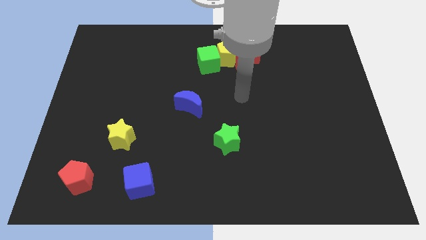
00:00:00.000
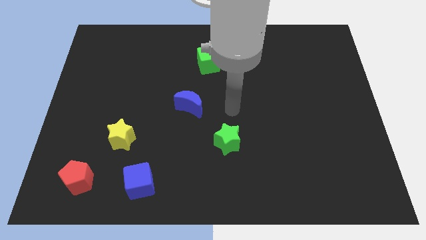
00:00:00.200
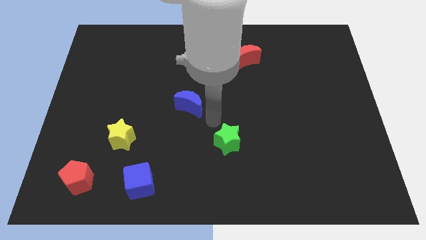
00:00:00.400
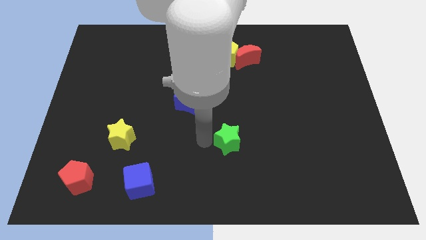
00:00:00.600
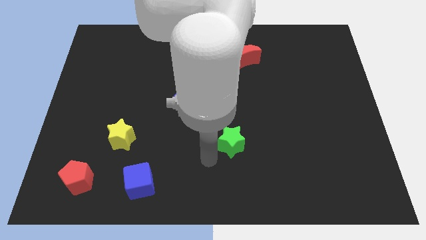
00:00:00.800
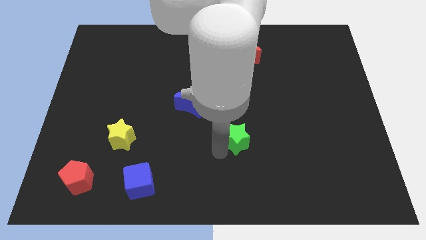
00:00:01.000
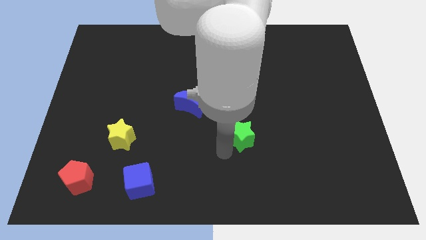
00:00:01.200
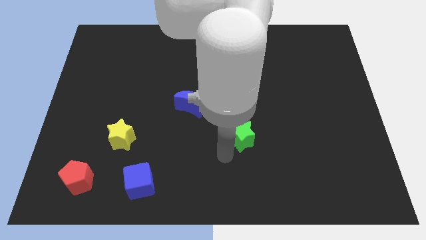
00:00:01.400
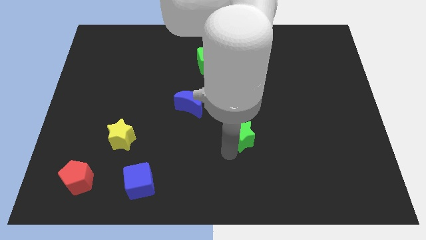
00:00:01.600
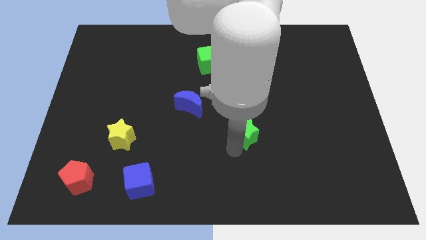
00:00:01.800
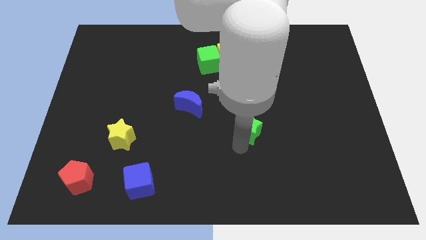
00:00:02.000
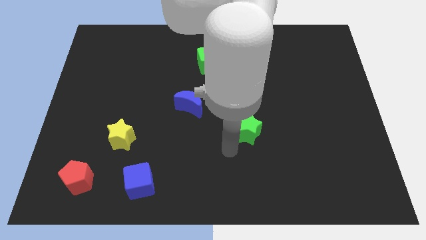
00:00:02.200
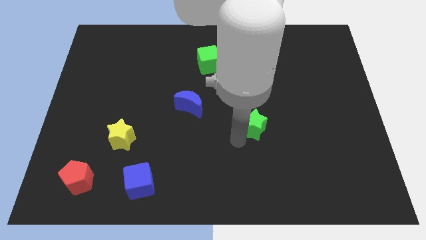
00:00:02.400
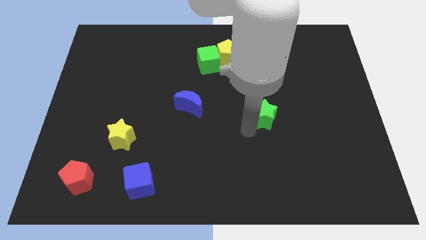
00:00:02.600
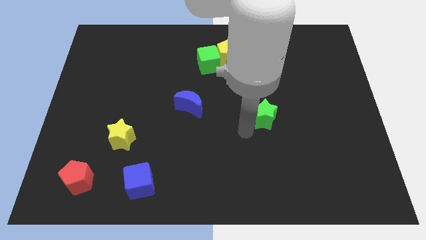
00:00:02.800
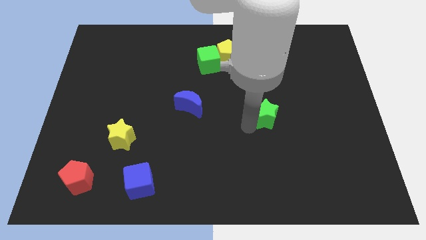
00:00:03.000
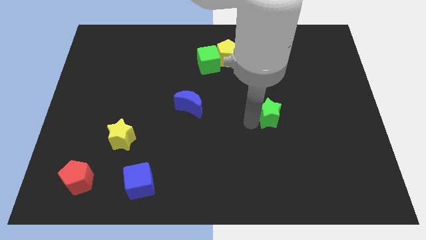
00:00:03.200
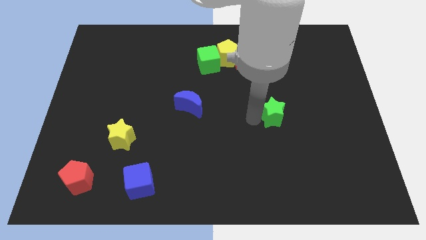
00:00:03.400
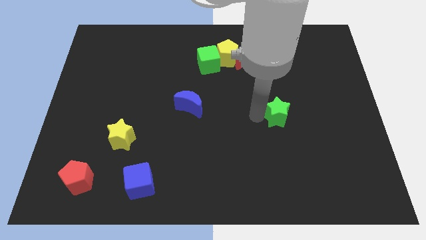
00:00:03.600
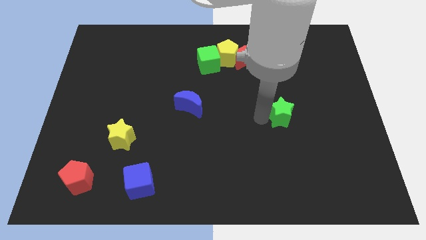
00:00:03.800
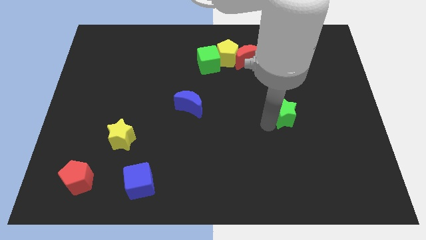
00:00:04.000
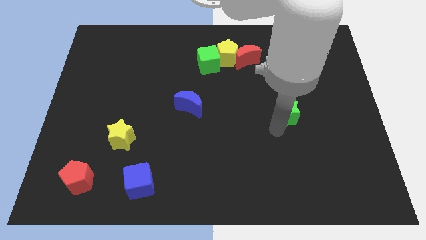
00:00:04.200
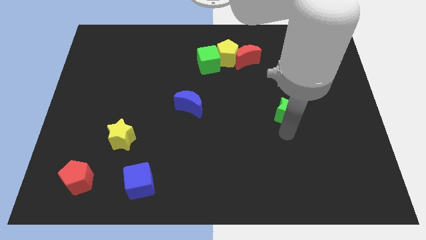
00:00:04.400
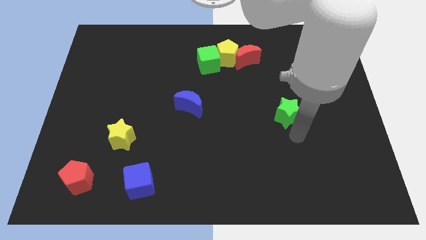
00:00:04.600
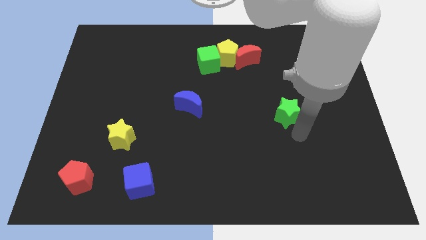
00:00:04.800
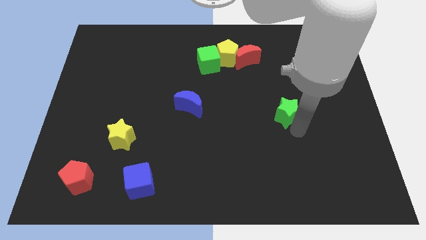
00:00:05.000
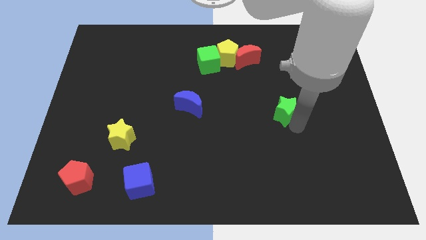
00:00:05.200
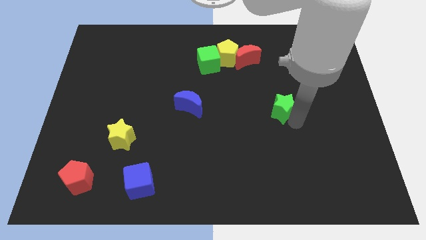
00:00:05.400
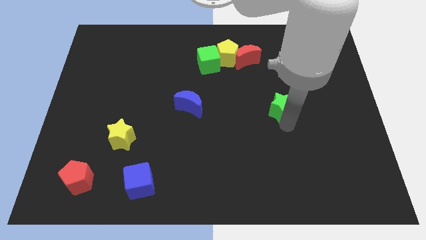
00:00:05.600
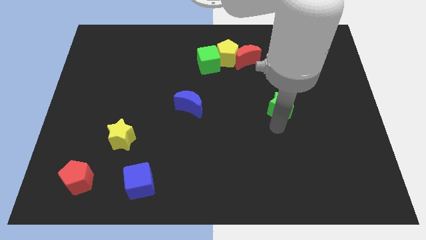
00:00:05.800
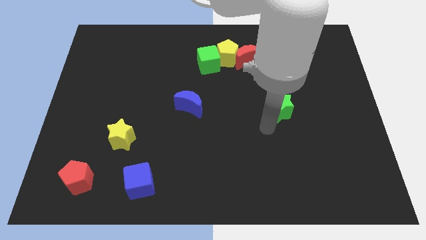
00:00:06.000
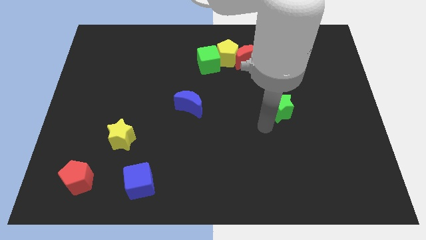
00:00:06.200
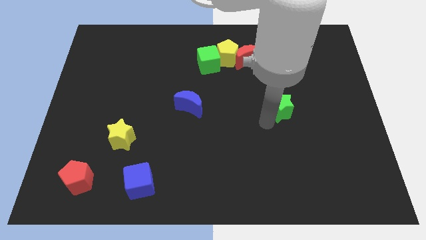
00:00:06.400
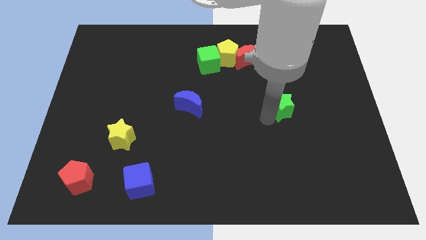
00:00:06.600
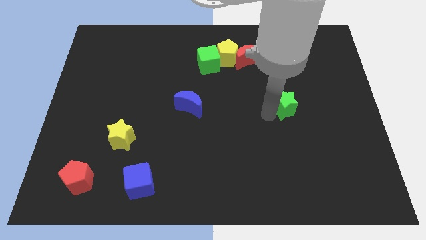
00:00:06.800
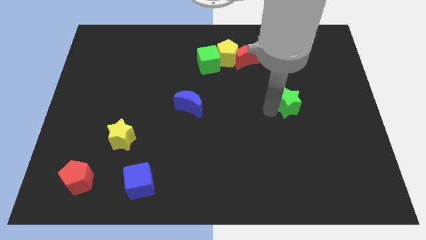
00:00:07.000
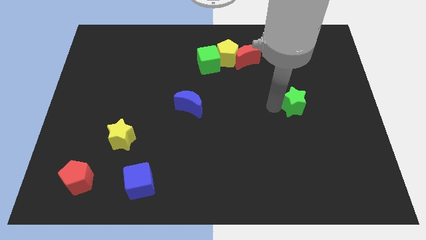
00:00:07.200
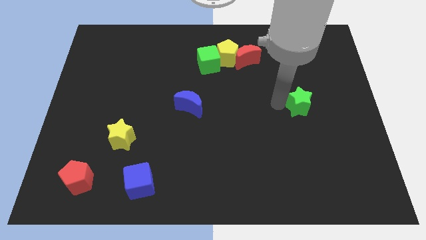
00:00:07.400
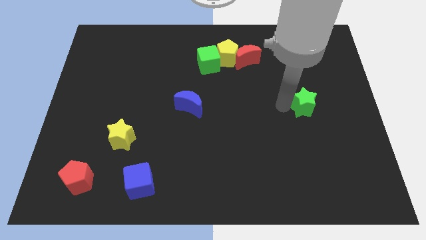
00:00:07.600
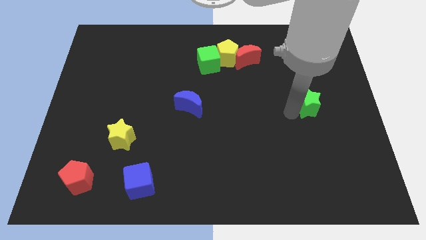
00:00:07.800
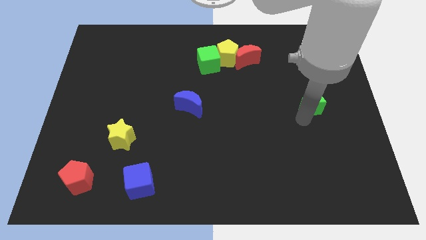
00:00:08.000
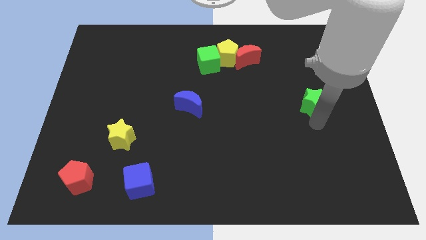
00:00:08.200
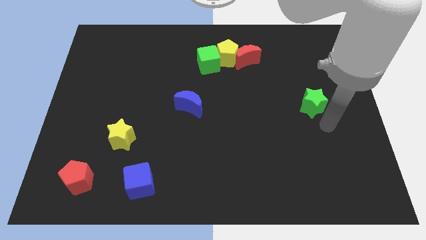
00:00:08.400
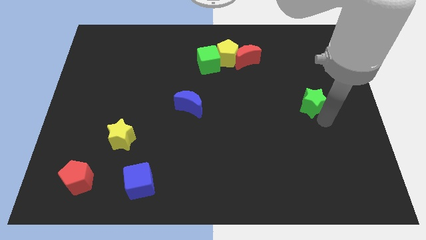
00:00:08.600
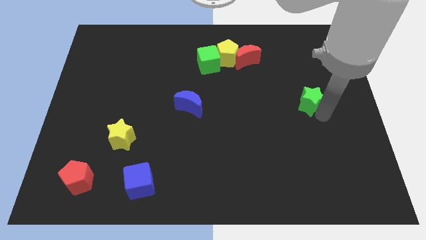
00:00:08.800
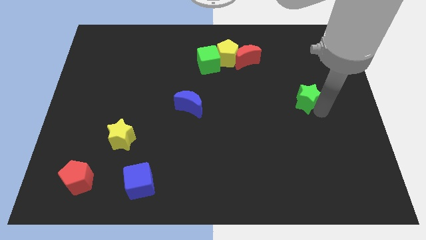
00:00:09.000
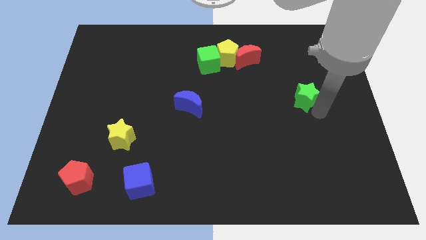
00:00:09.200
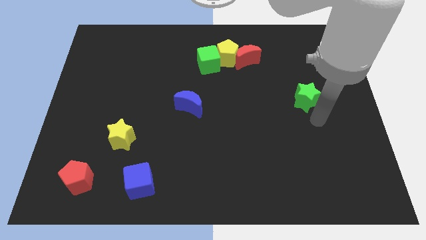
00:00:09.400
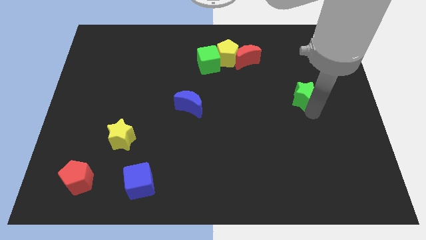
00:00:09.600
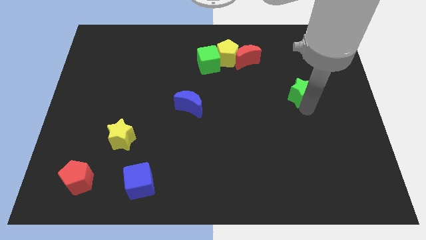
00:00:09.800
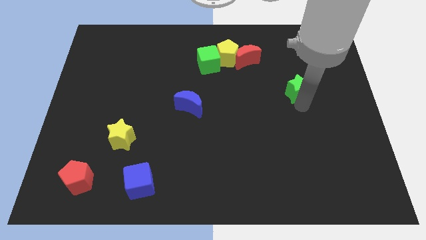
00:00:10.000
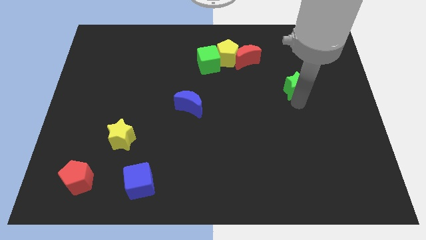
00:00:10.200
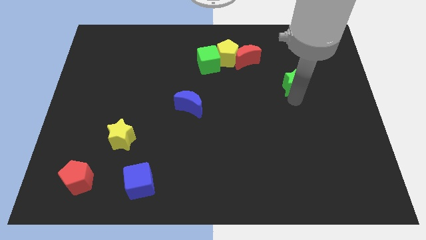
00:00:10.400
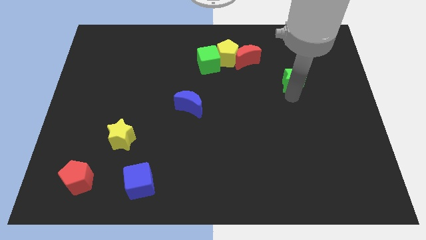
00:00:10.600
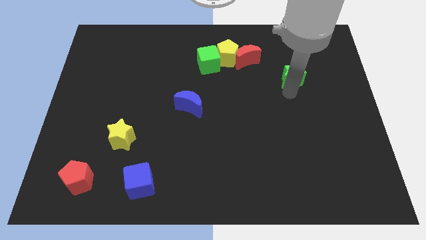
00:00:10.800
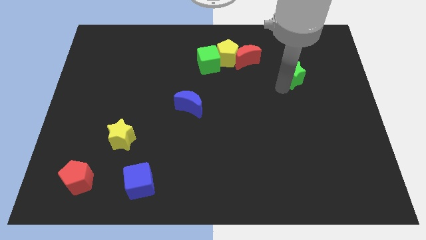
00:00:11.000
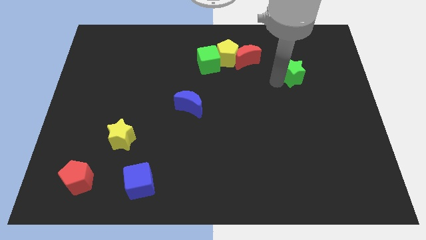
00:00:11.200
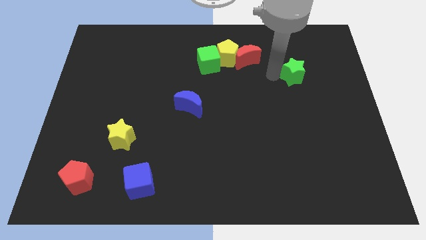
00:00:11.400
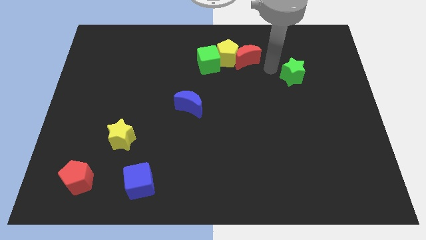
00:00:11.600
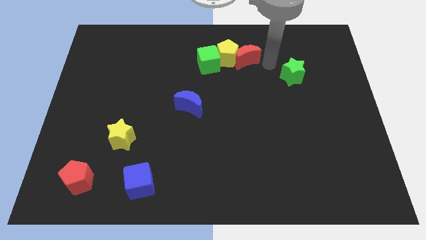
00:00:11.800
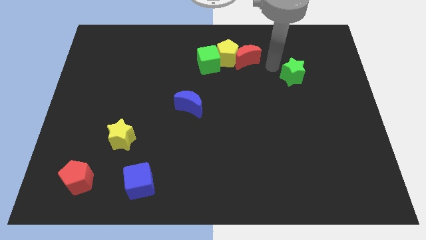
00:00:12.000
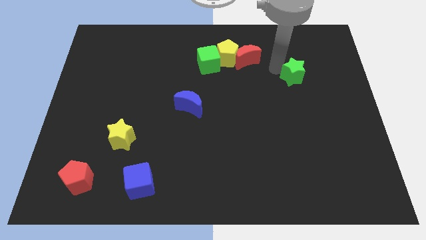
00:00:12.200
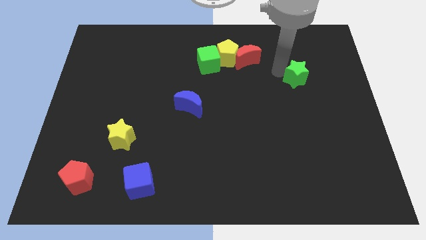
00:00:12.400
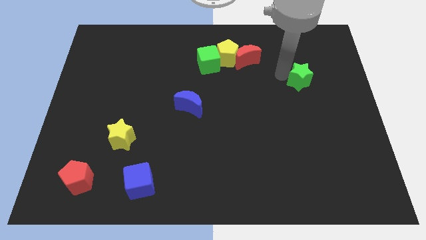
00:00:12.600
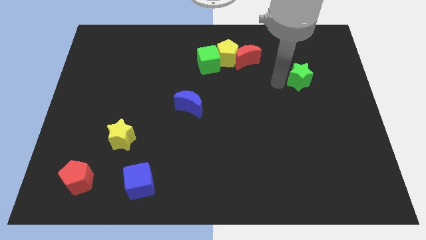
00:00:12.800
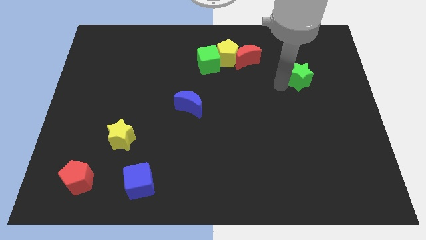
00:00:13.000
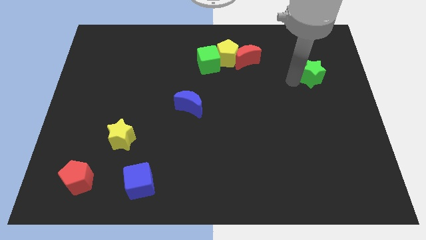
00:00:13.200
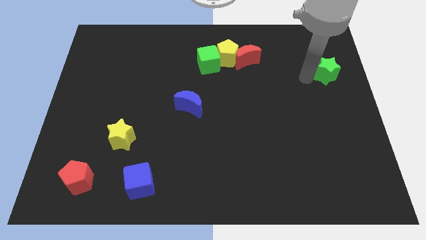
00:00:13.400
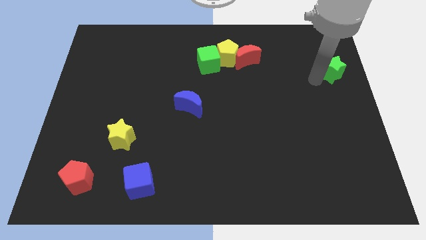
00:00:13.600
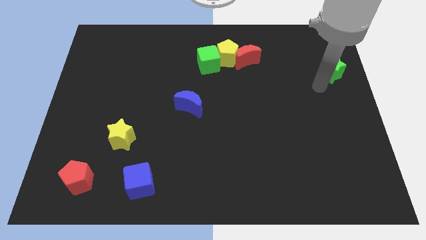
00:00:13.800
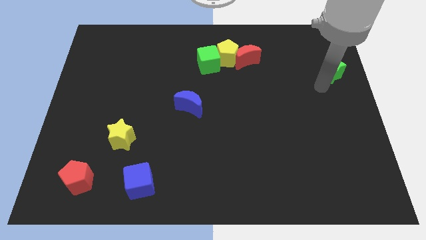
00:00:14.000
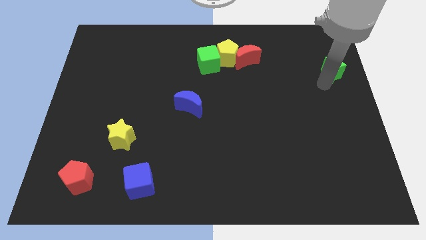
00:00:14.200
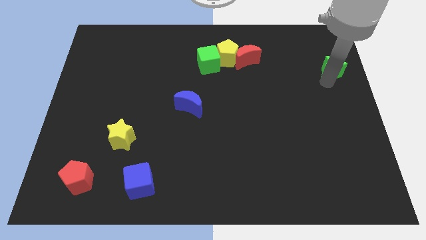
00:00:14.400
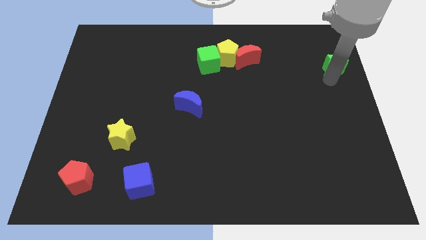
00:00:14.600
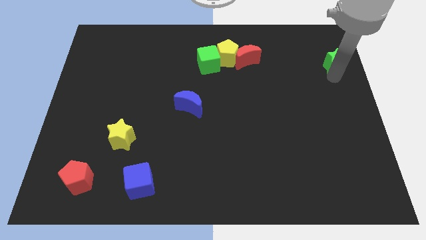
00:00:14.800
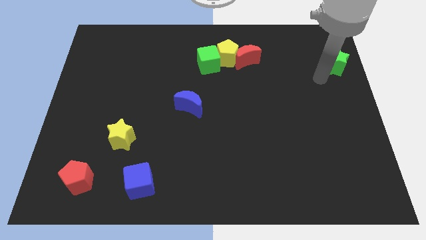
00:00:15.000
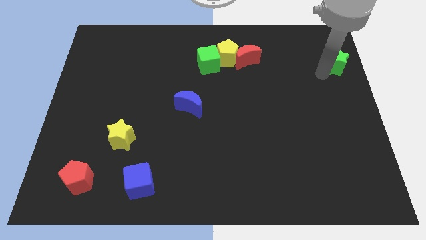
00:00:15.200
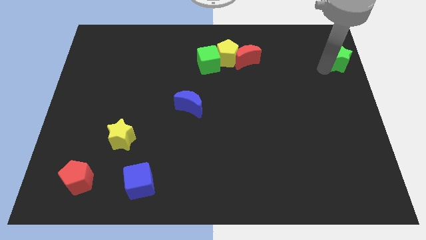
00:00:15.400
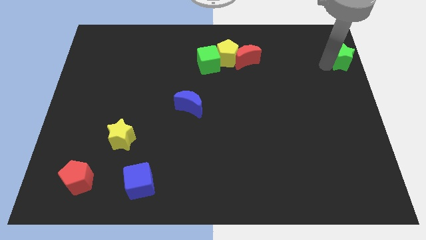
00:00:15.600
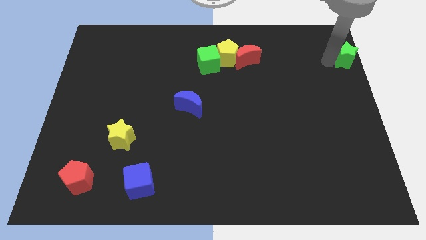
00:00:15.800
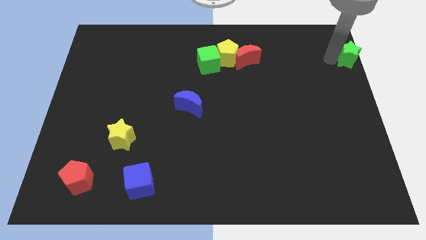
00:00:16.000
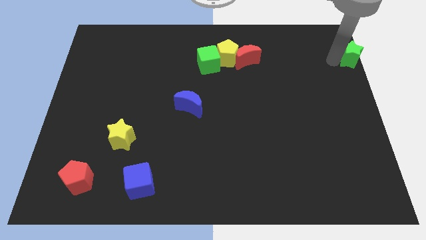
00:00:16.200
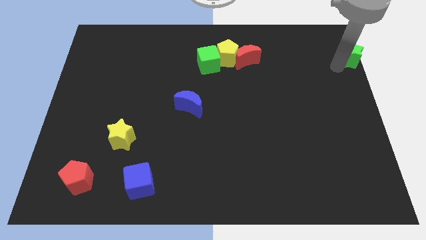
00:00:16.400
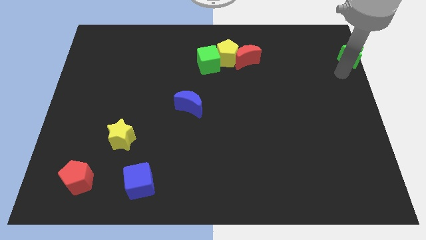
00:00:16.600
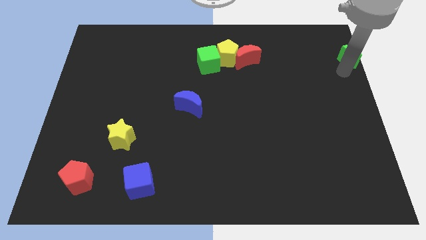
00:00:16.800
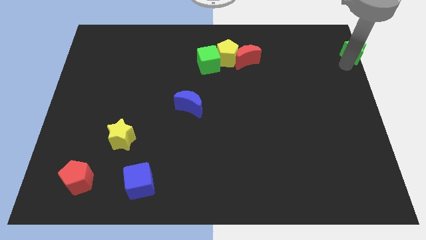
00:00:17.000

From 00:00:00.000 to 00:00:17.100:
move the green star to the top right
